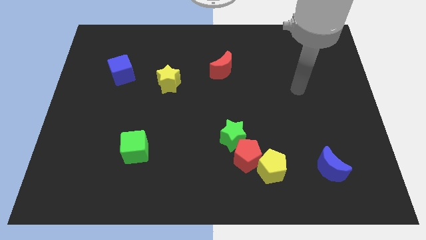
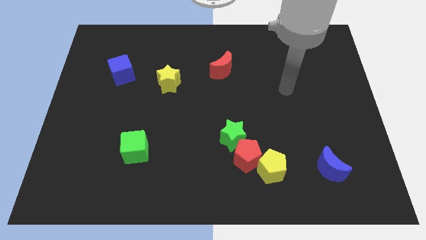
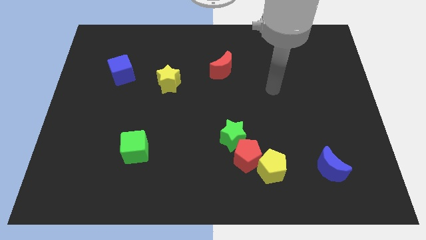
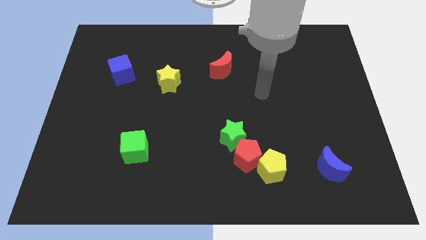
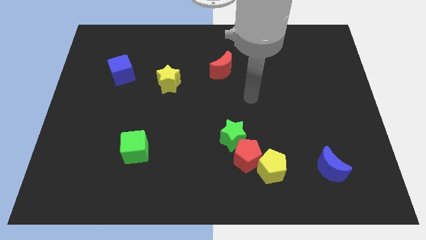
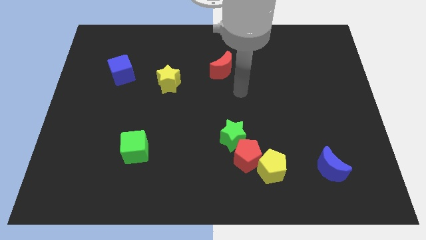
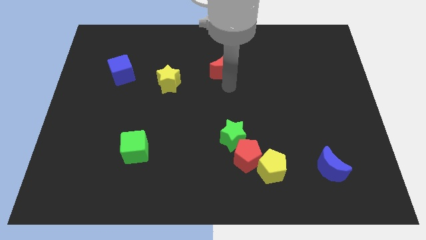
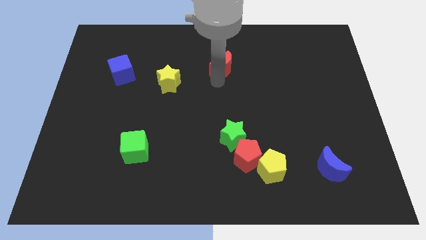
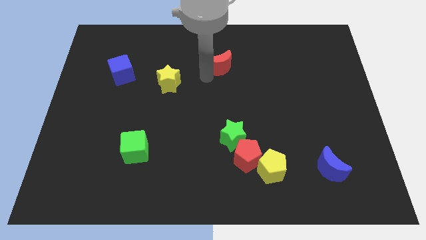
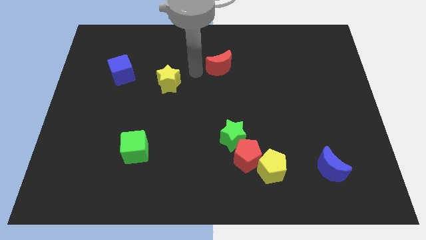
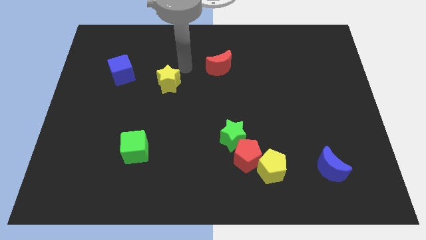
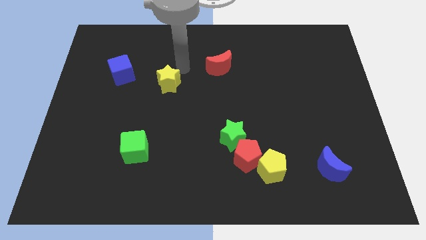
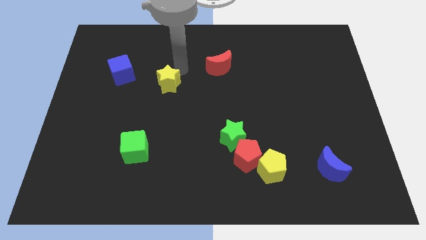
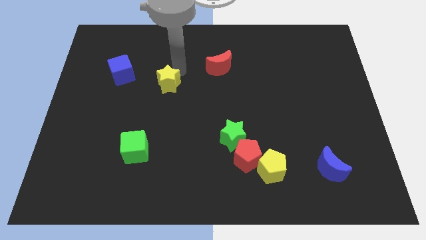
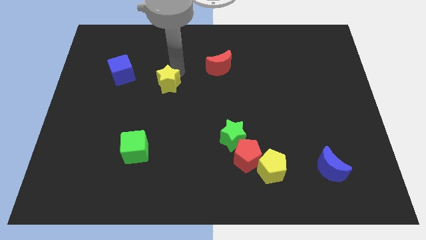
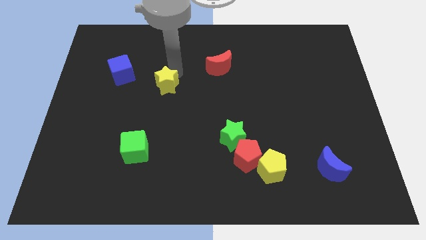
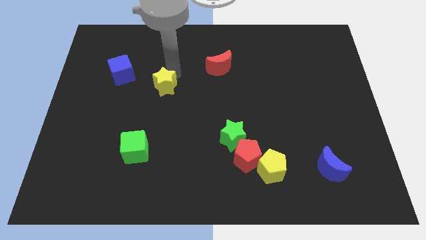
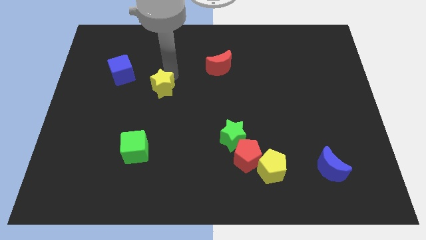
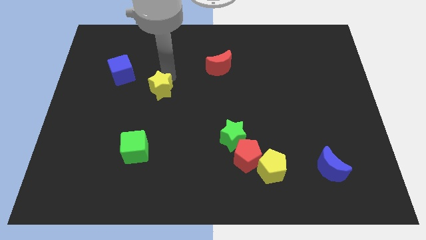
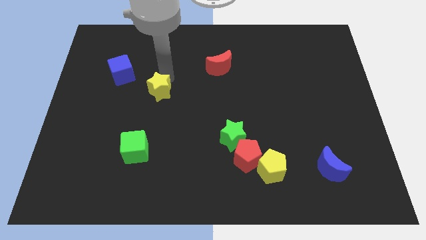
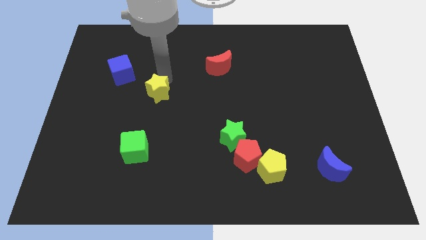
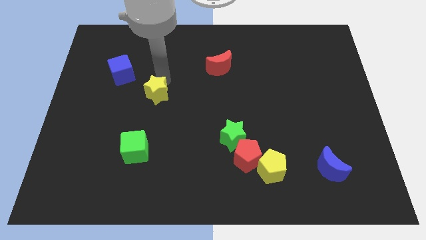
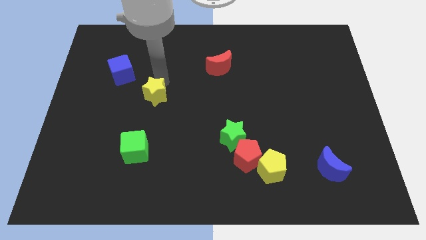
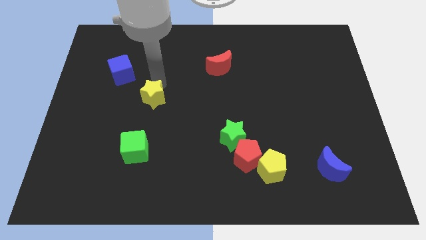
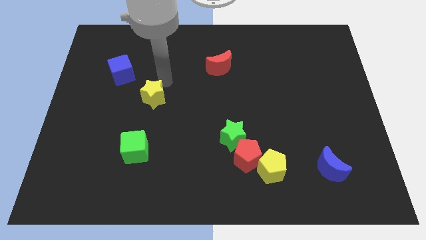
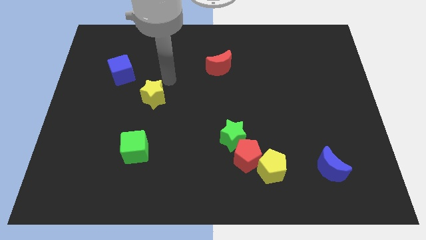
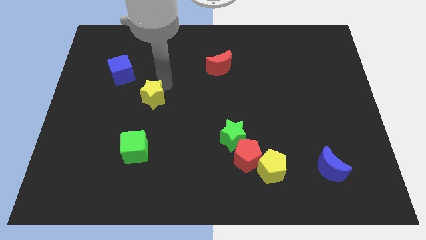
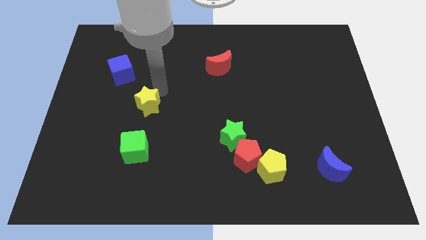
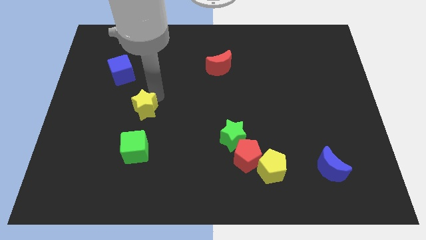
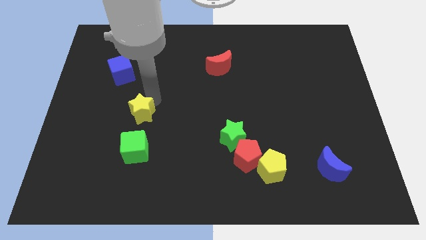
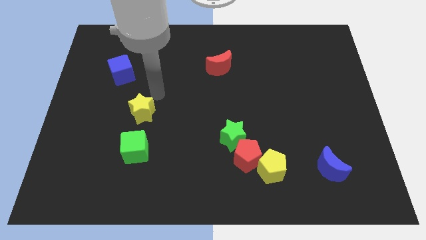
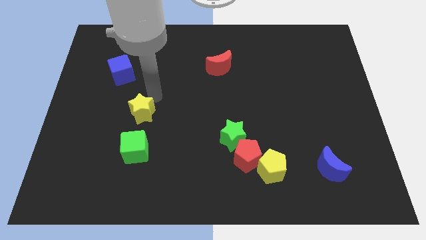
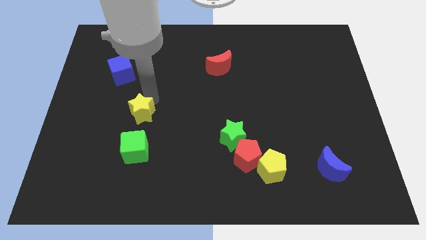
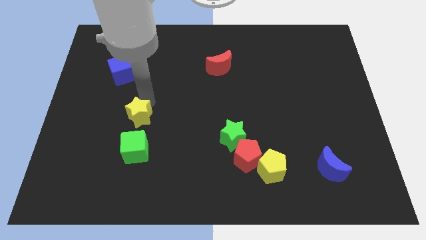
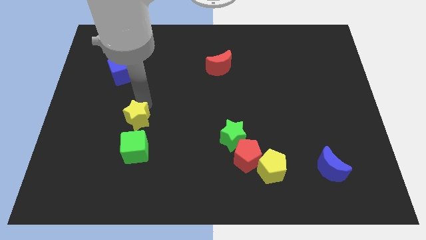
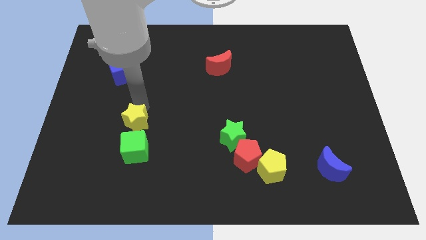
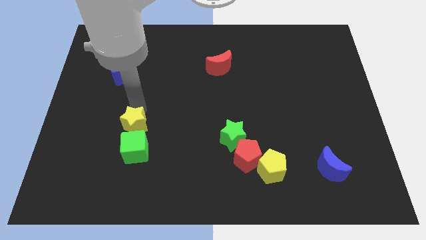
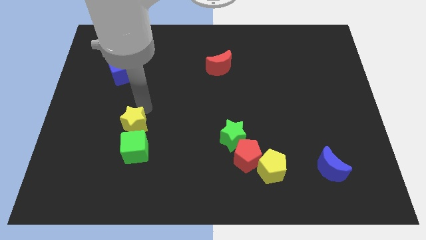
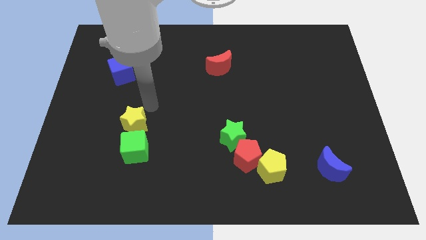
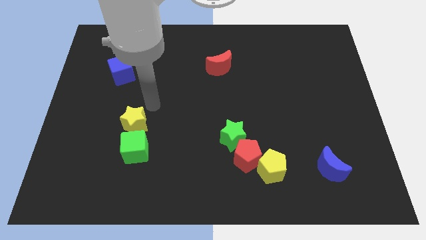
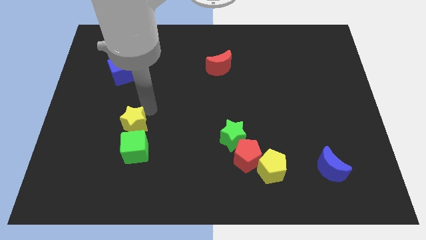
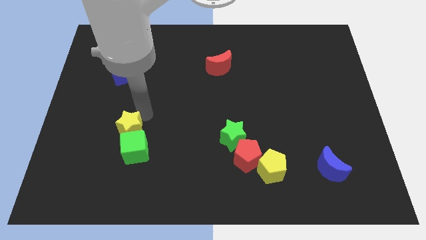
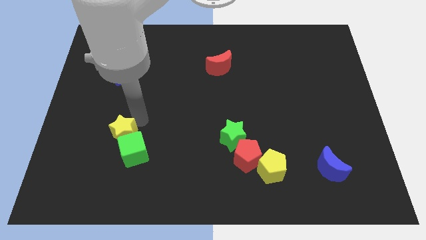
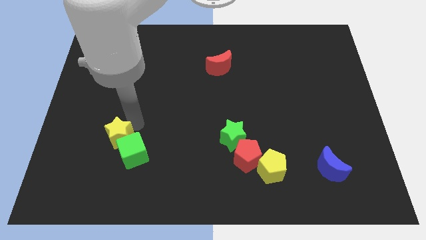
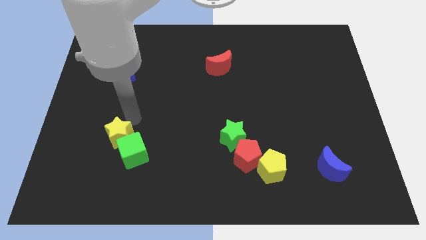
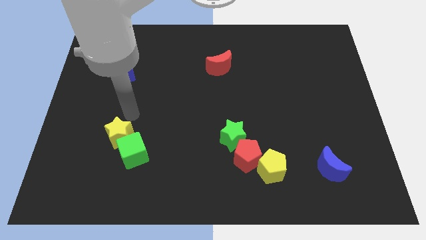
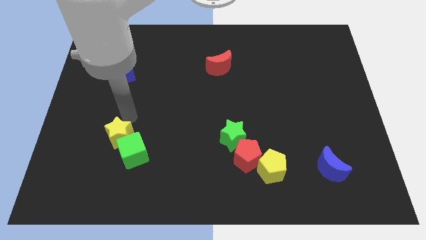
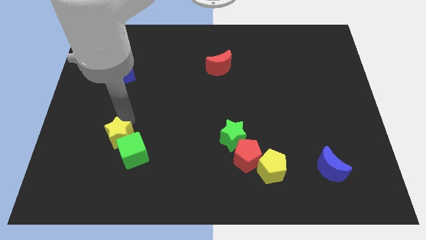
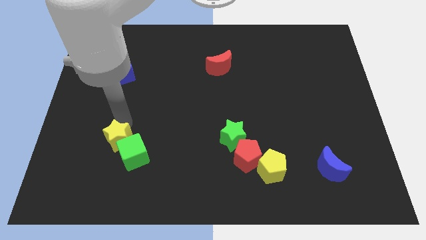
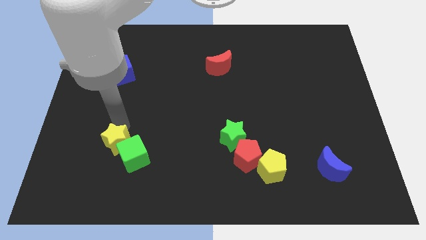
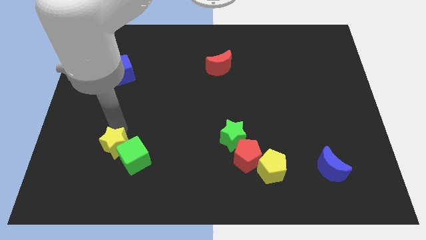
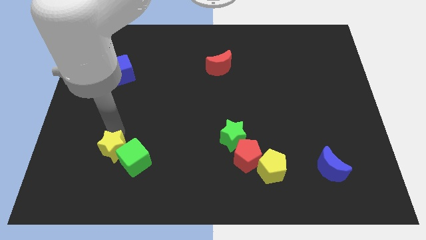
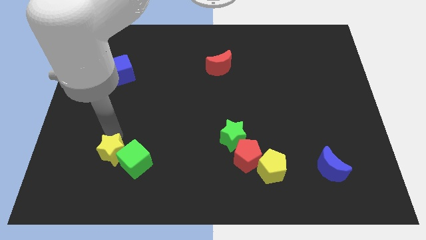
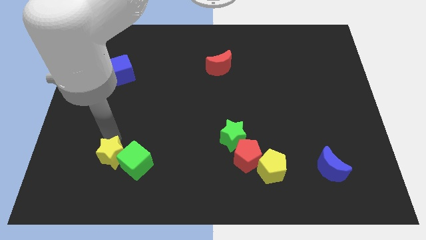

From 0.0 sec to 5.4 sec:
move the yellow star to the bottom left side of the green cube

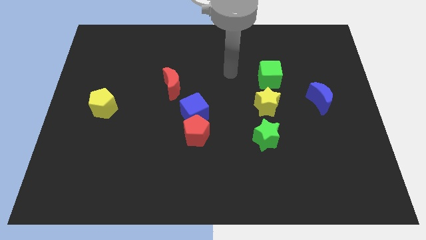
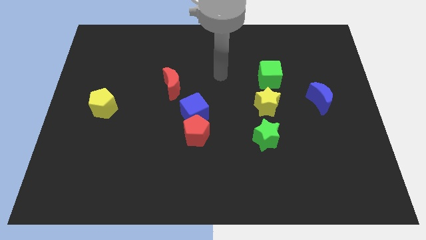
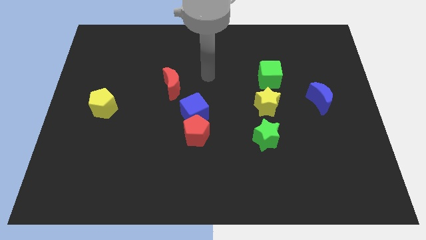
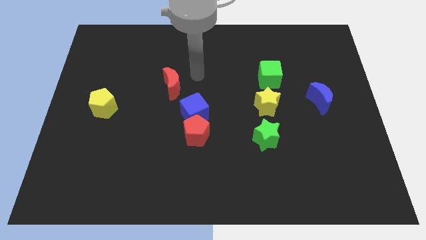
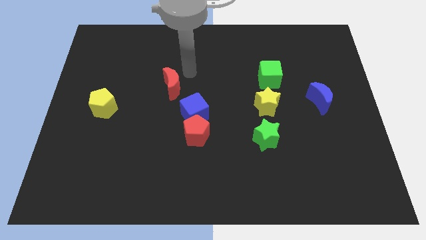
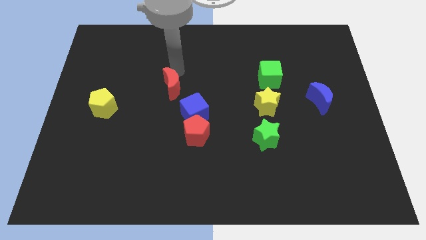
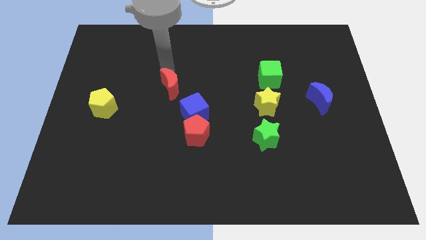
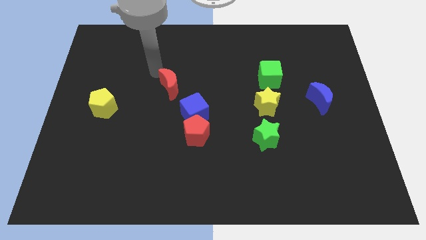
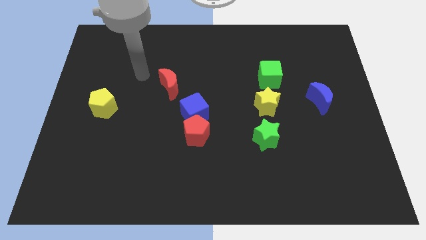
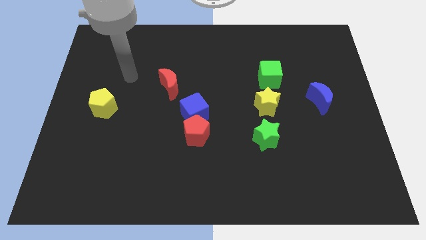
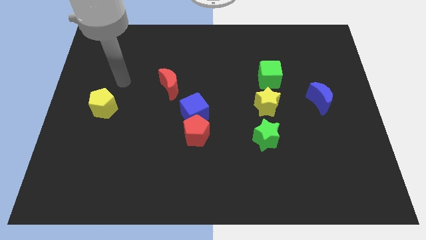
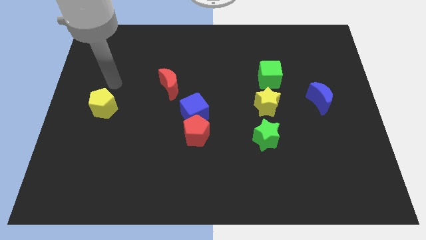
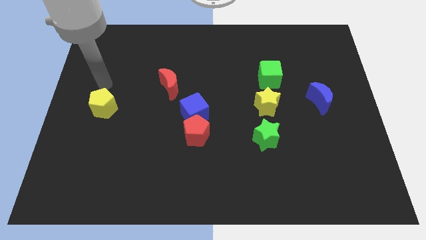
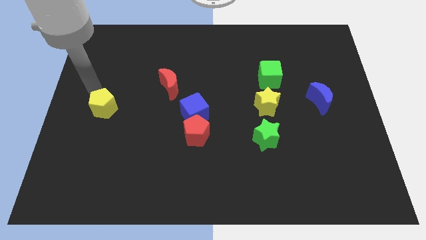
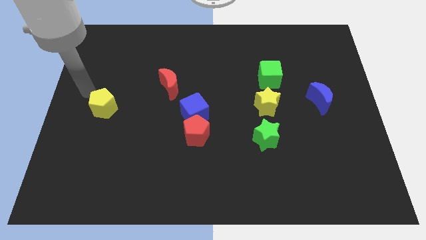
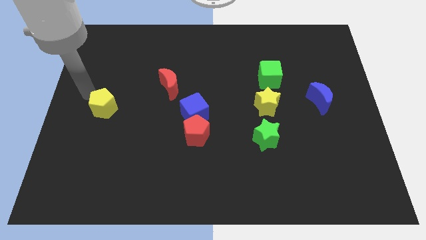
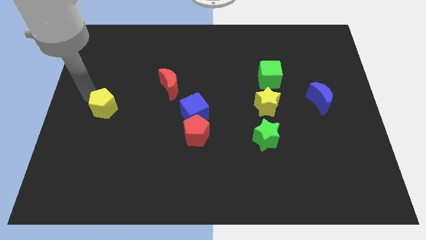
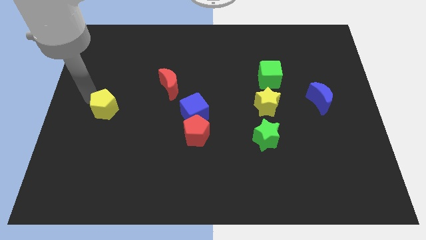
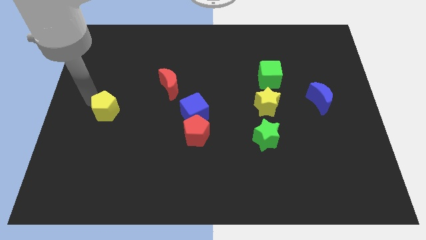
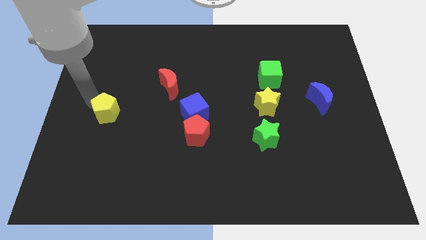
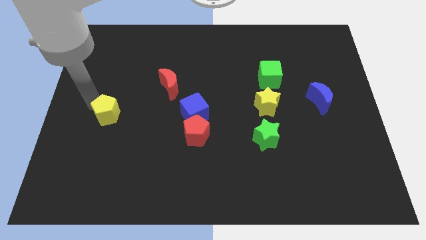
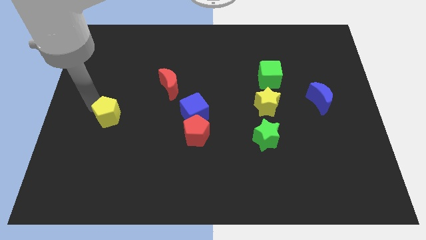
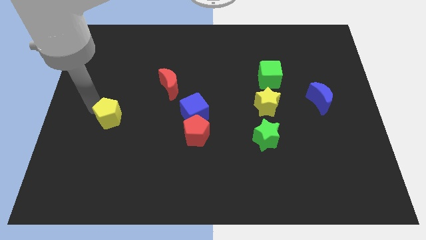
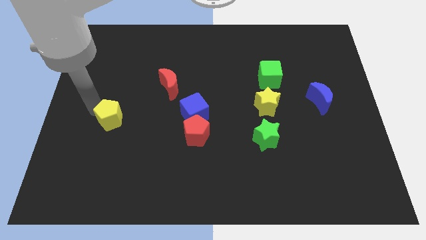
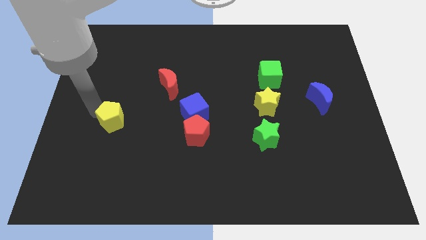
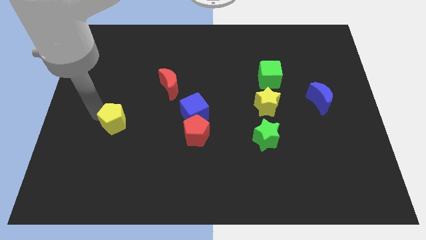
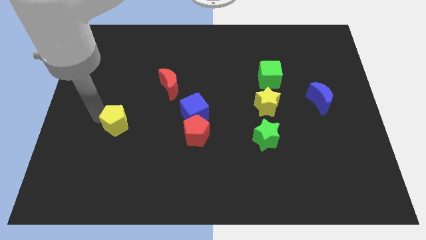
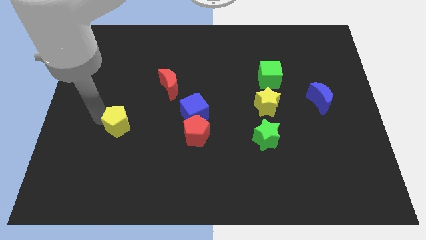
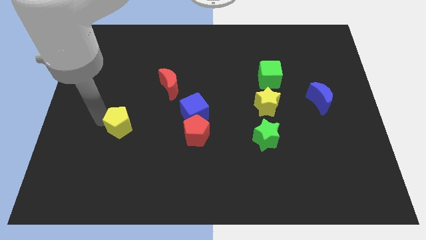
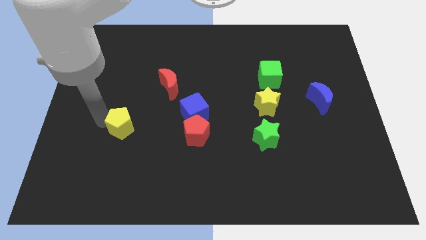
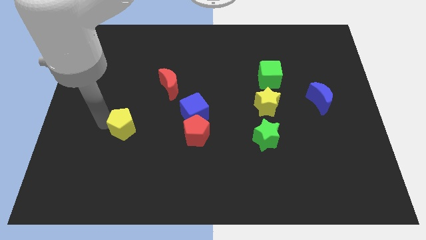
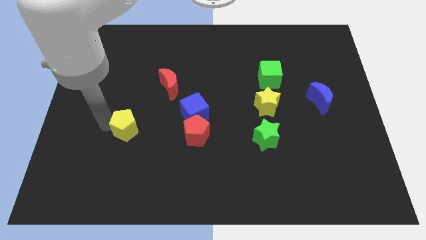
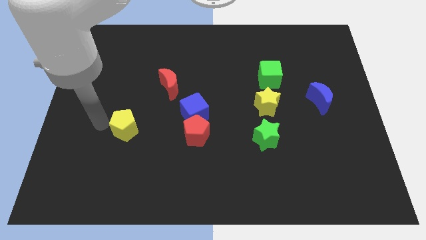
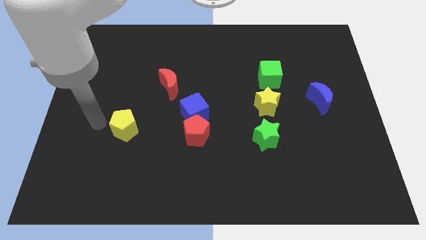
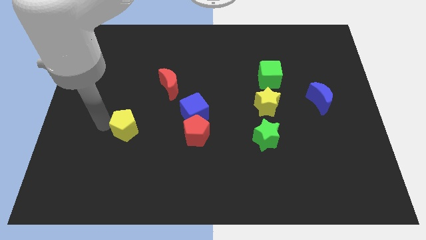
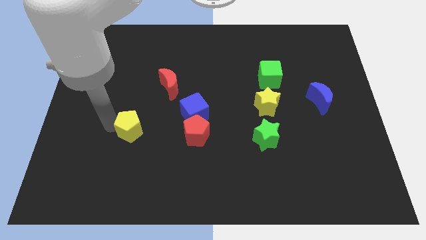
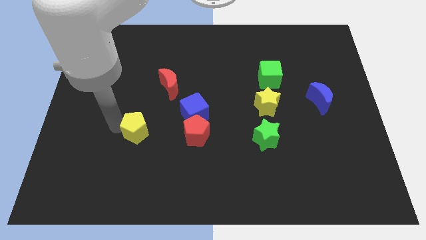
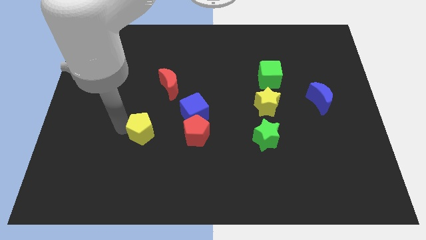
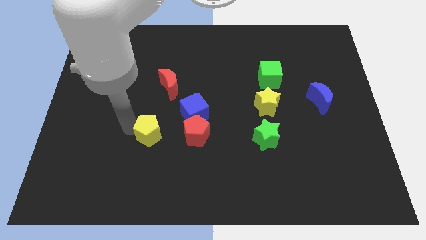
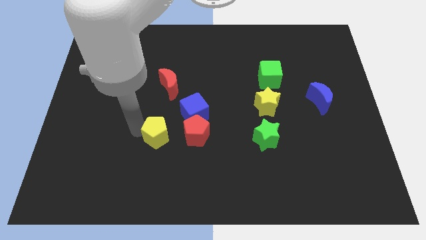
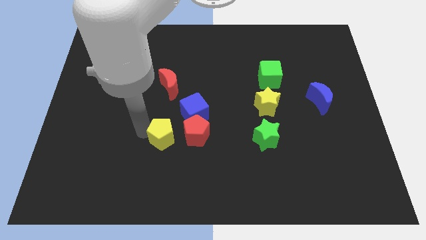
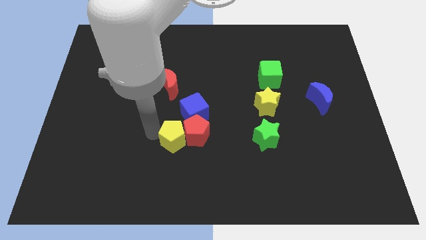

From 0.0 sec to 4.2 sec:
put the yellow pentagon to the bottom of the blue cube
